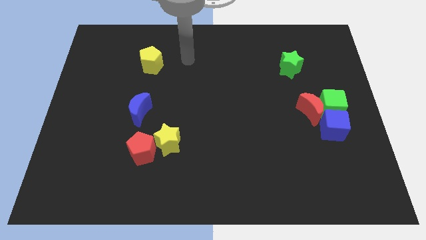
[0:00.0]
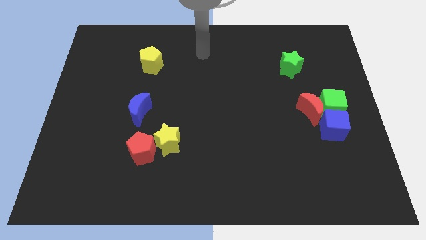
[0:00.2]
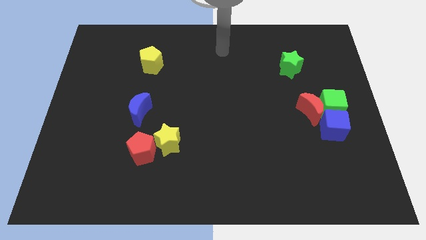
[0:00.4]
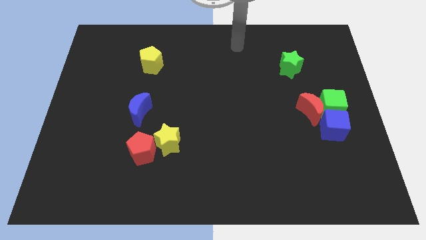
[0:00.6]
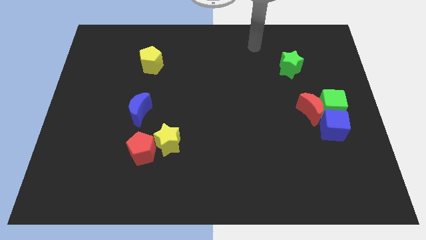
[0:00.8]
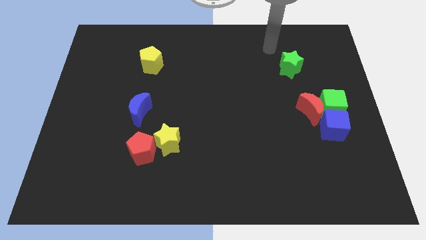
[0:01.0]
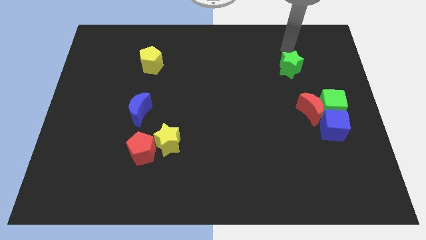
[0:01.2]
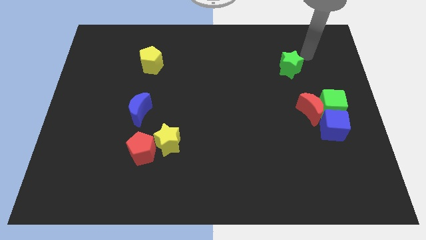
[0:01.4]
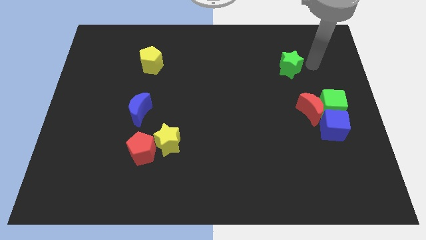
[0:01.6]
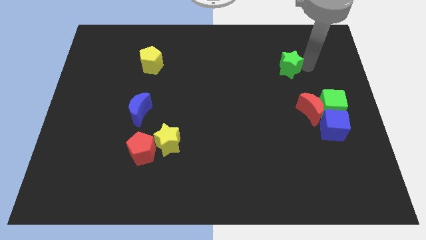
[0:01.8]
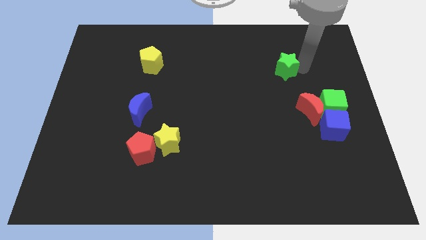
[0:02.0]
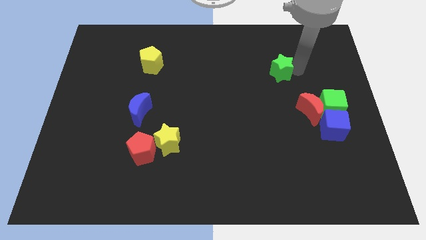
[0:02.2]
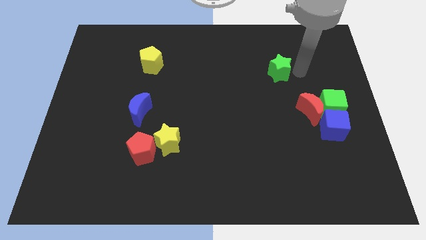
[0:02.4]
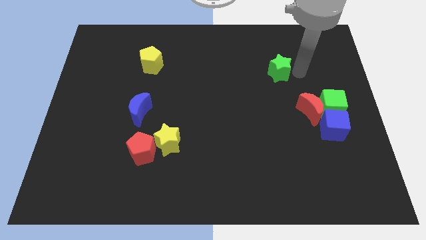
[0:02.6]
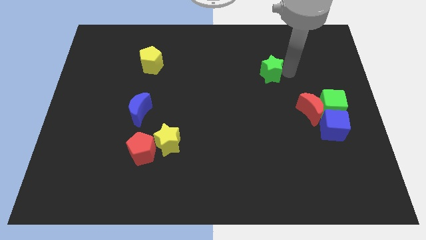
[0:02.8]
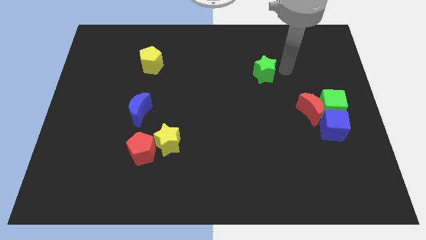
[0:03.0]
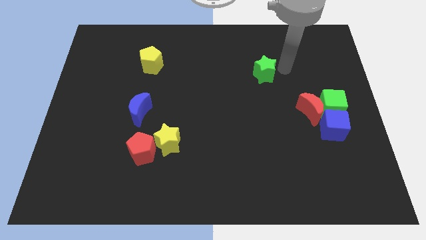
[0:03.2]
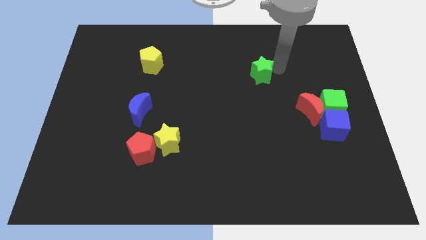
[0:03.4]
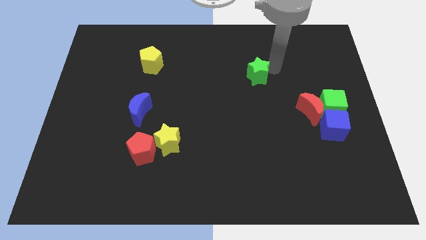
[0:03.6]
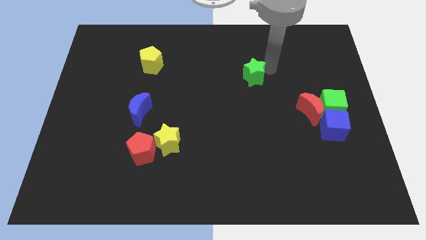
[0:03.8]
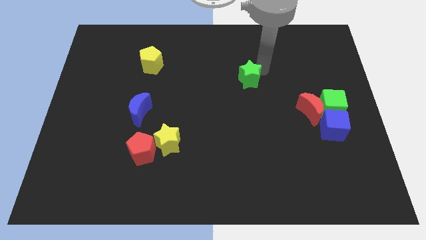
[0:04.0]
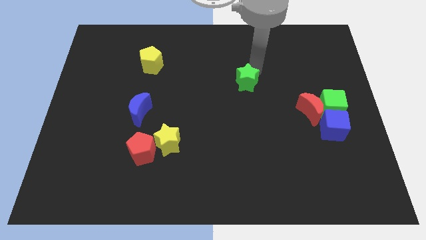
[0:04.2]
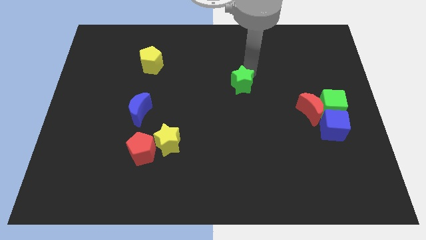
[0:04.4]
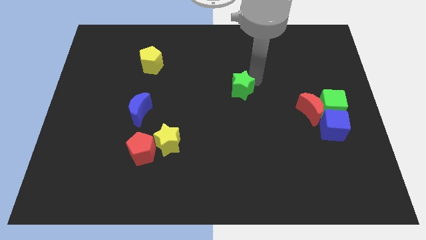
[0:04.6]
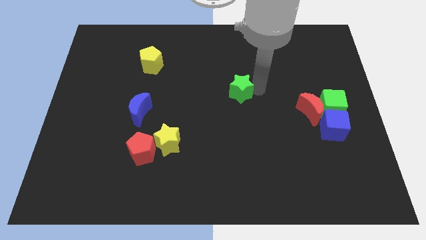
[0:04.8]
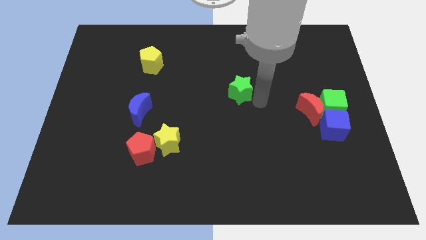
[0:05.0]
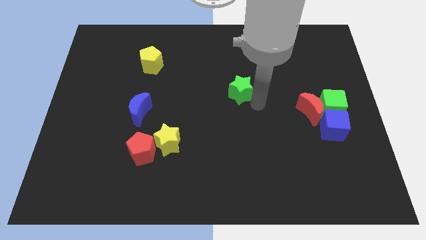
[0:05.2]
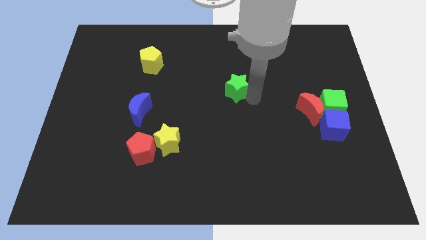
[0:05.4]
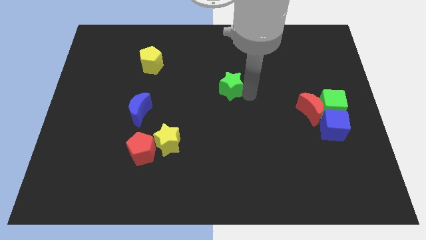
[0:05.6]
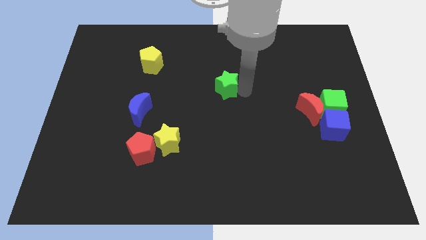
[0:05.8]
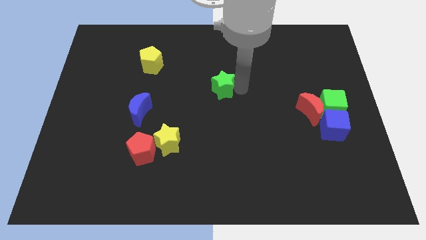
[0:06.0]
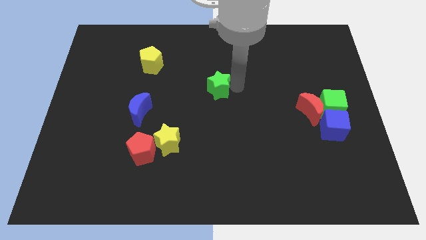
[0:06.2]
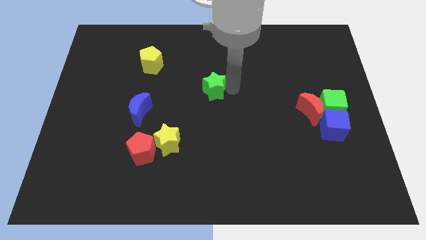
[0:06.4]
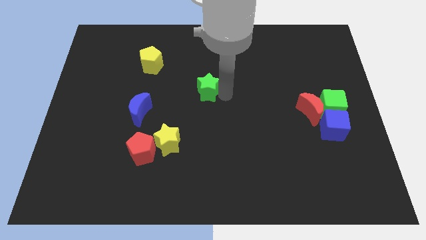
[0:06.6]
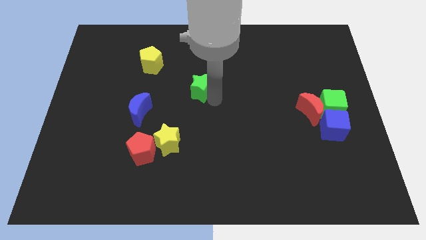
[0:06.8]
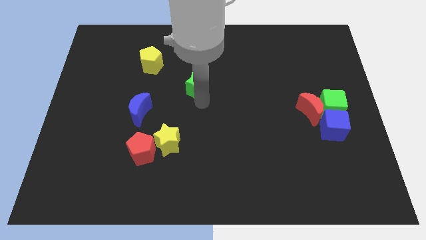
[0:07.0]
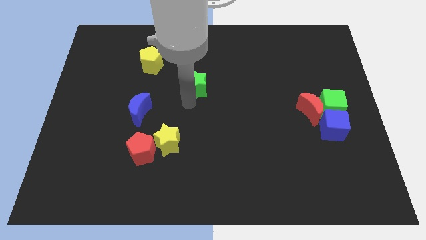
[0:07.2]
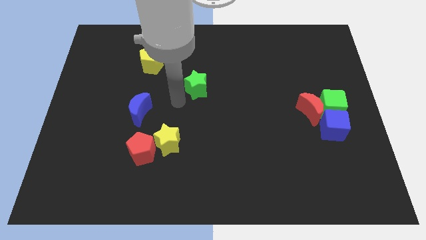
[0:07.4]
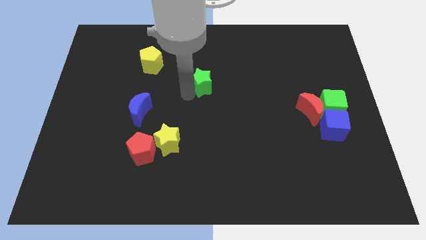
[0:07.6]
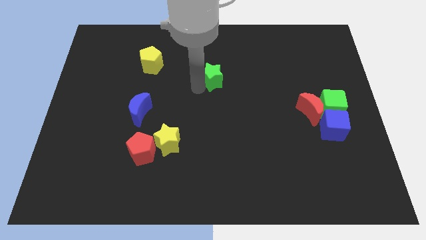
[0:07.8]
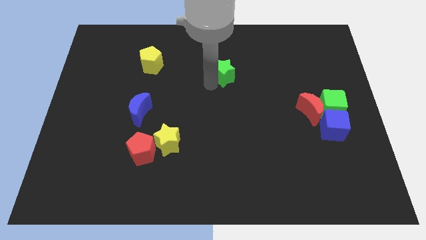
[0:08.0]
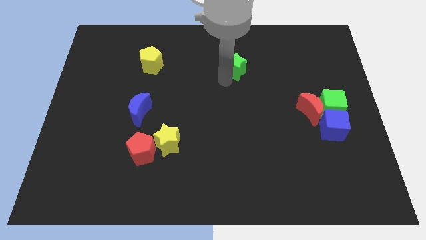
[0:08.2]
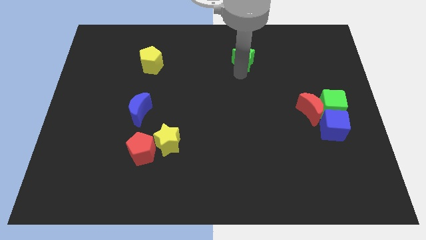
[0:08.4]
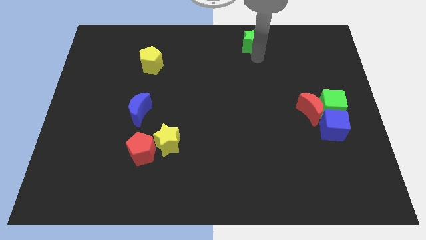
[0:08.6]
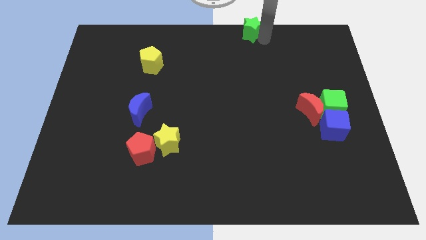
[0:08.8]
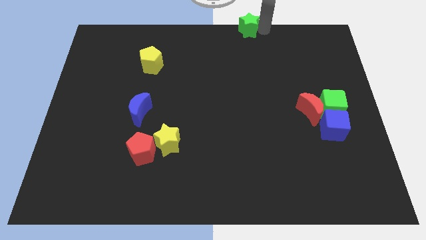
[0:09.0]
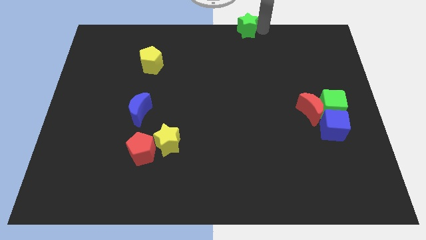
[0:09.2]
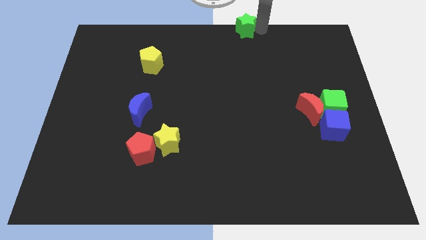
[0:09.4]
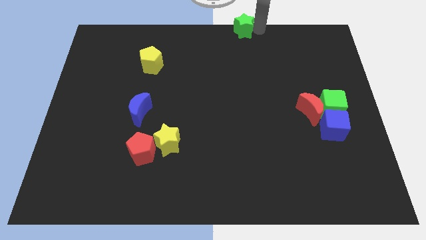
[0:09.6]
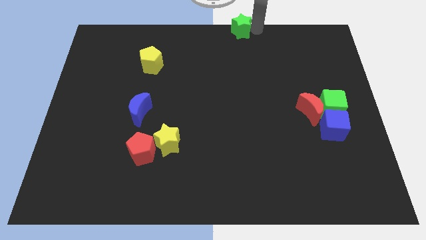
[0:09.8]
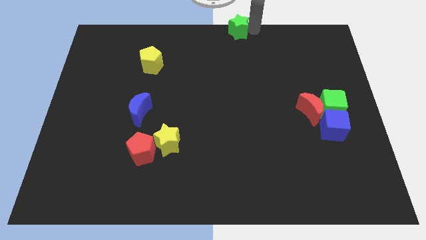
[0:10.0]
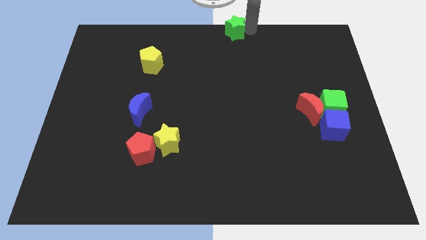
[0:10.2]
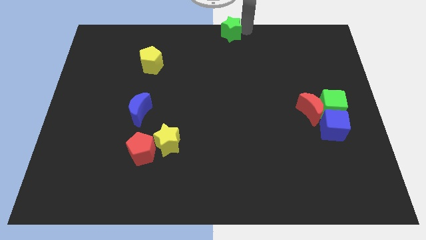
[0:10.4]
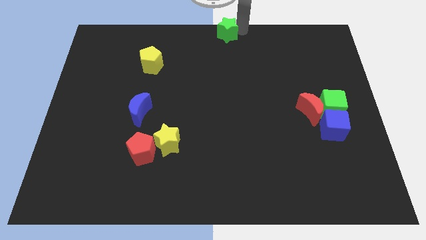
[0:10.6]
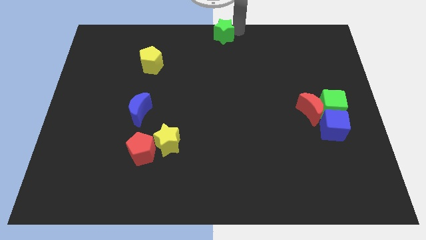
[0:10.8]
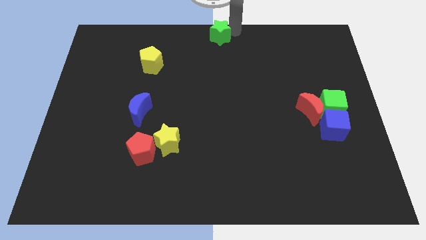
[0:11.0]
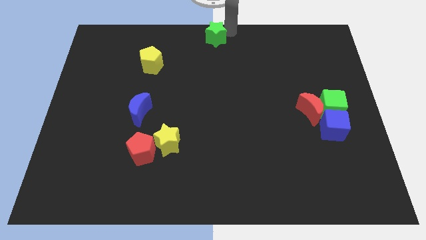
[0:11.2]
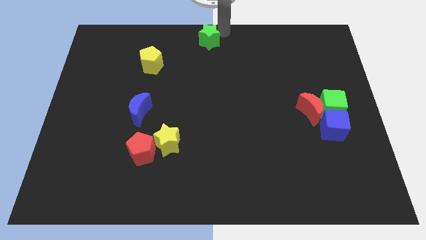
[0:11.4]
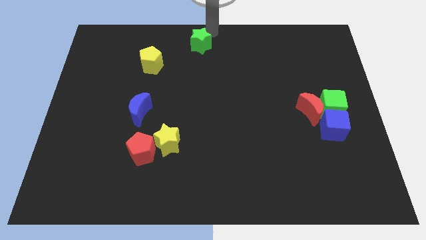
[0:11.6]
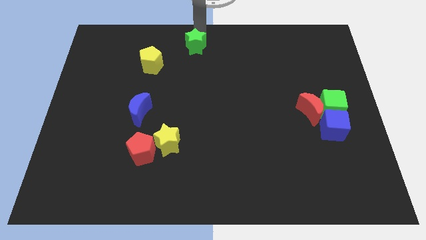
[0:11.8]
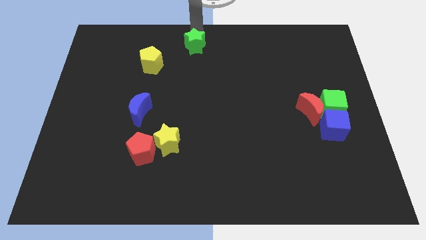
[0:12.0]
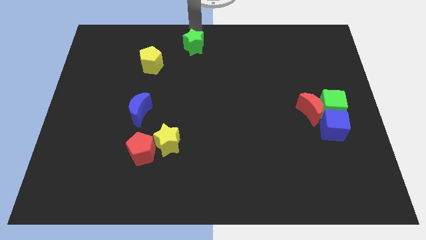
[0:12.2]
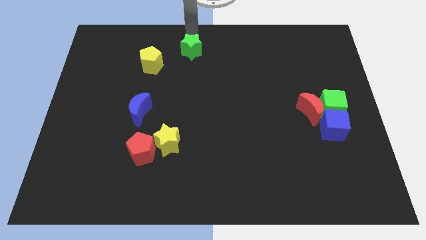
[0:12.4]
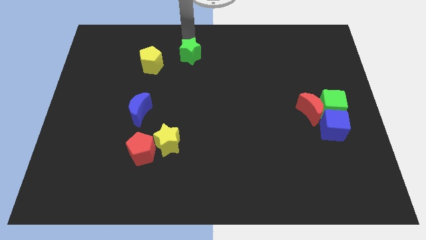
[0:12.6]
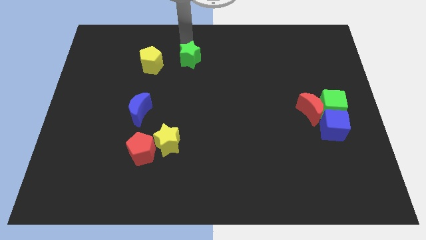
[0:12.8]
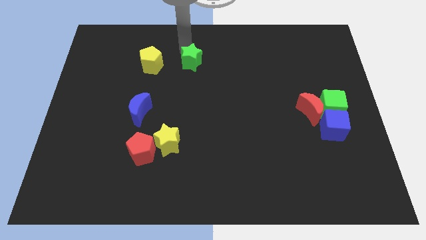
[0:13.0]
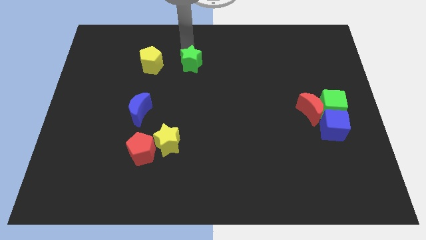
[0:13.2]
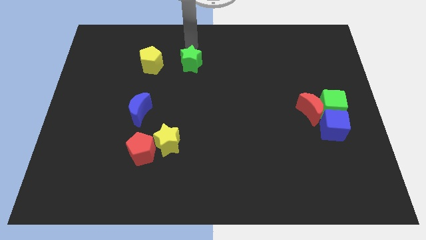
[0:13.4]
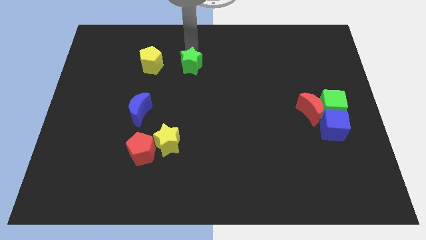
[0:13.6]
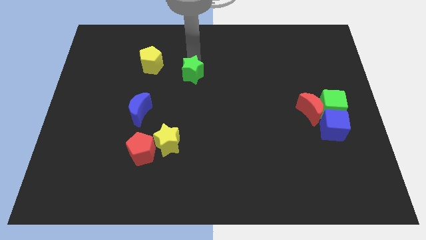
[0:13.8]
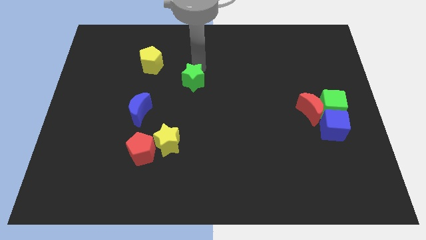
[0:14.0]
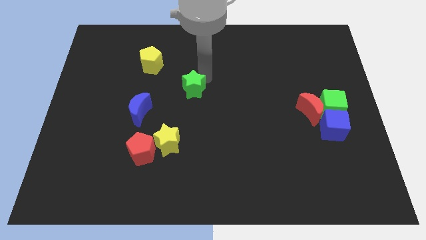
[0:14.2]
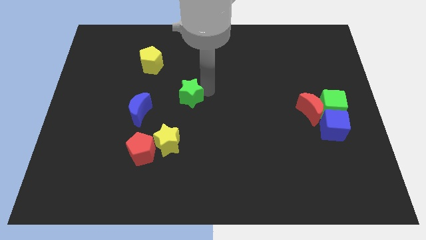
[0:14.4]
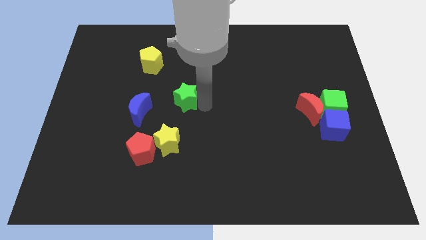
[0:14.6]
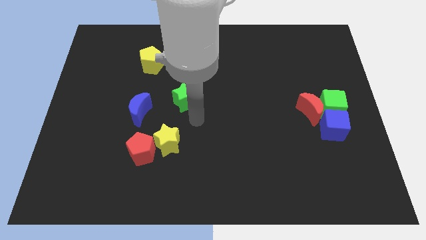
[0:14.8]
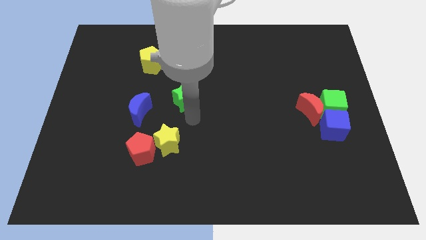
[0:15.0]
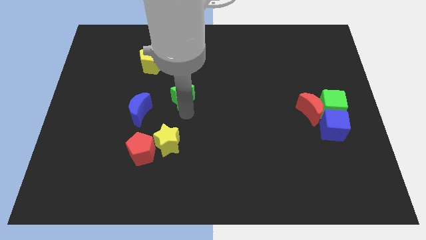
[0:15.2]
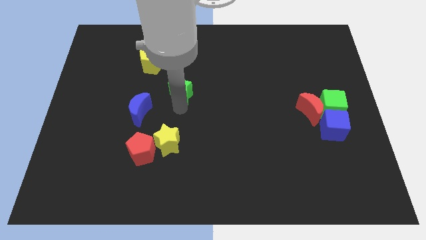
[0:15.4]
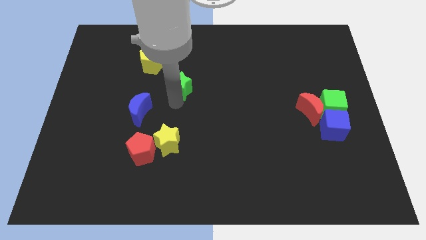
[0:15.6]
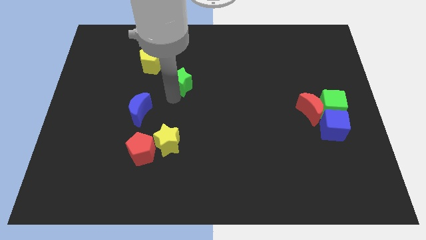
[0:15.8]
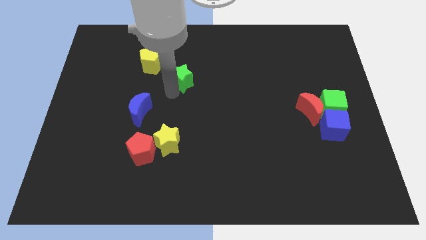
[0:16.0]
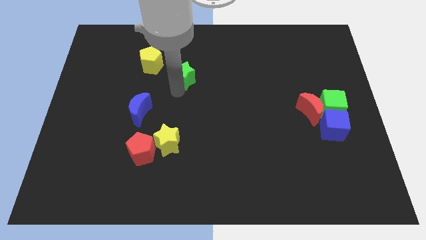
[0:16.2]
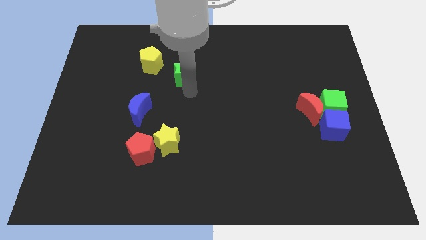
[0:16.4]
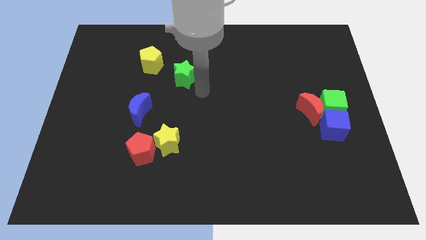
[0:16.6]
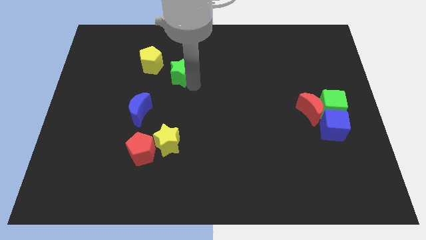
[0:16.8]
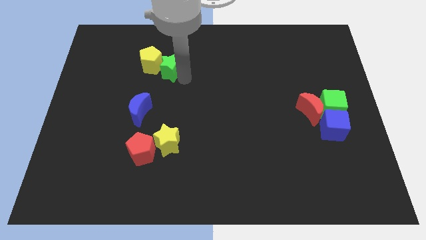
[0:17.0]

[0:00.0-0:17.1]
move the green star towards the yellow pentagon
